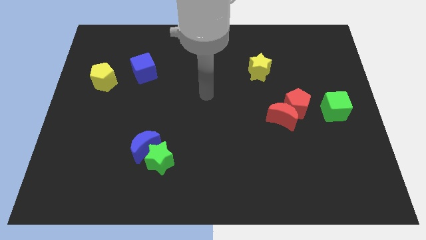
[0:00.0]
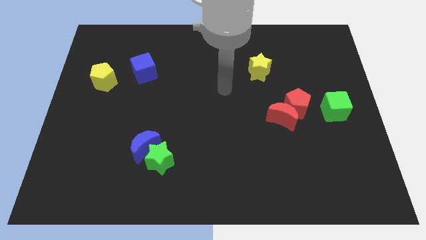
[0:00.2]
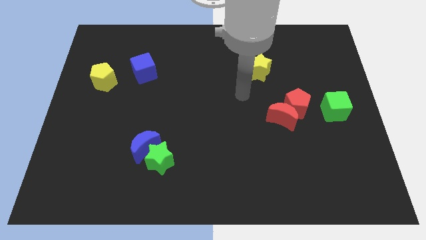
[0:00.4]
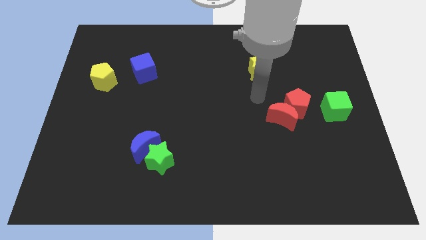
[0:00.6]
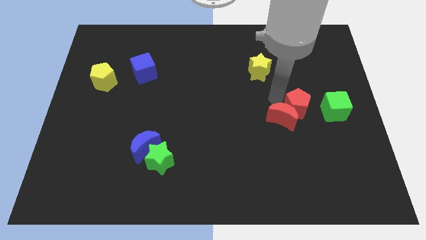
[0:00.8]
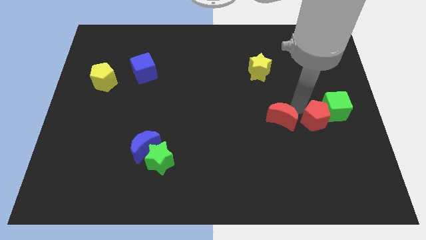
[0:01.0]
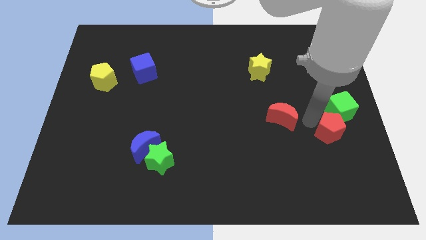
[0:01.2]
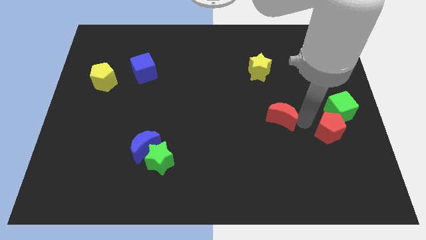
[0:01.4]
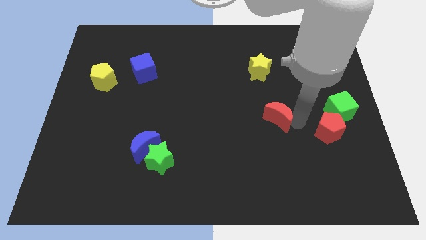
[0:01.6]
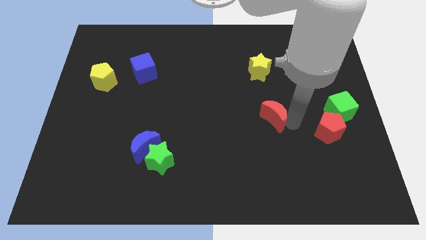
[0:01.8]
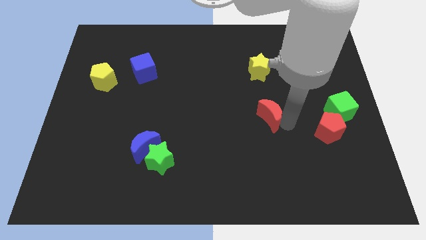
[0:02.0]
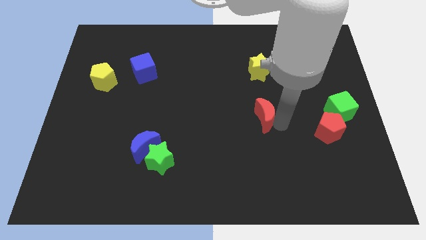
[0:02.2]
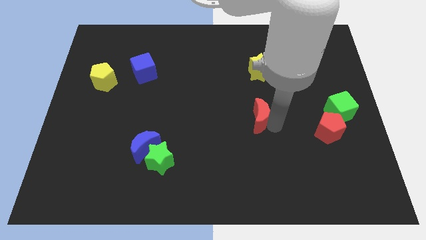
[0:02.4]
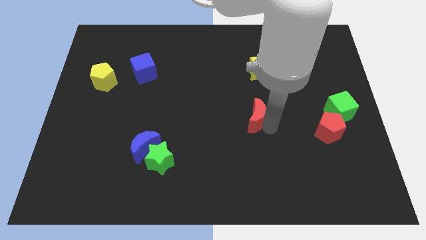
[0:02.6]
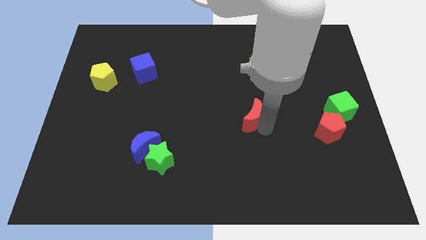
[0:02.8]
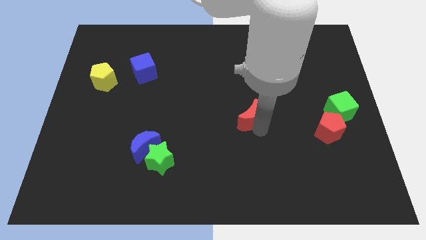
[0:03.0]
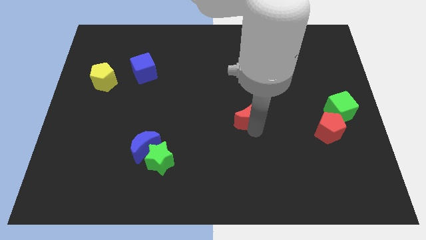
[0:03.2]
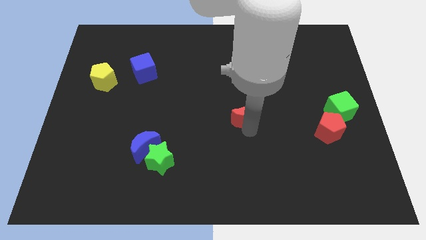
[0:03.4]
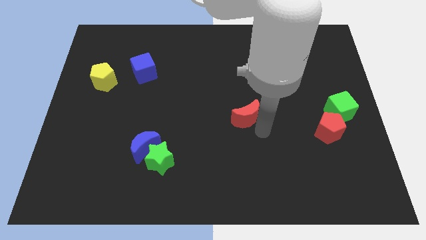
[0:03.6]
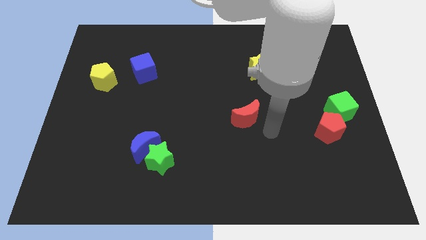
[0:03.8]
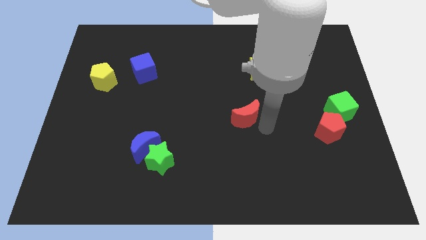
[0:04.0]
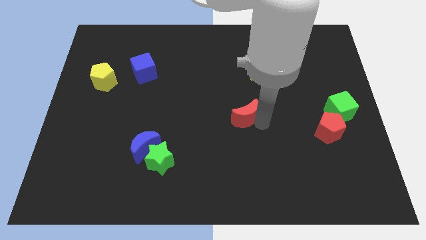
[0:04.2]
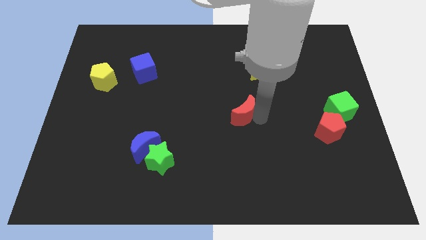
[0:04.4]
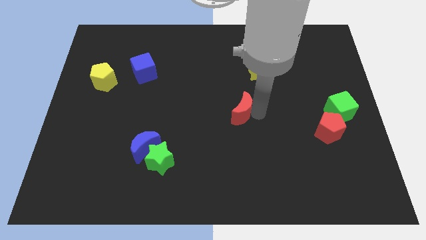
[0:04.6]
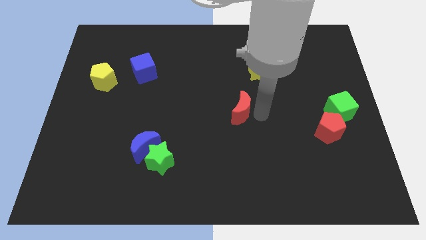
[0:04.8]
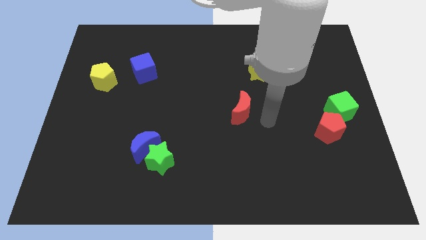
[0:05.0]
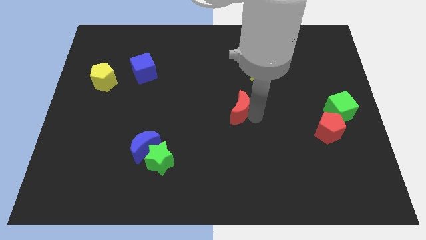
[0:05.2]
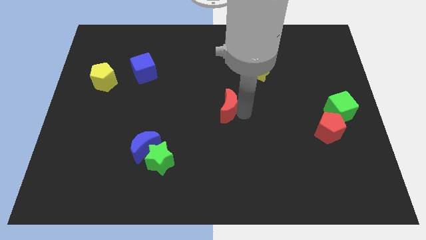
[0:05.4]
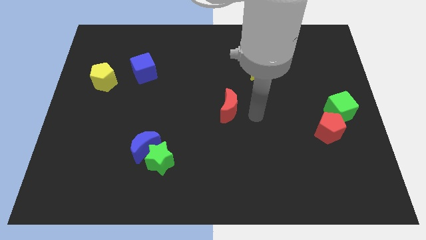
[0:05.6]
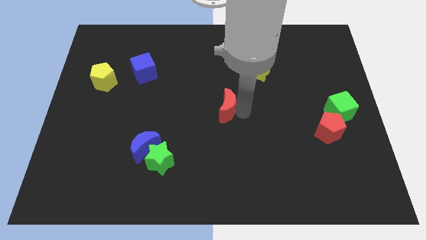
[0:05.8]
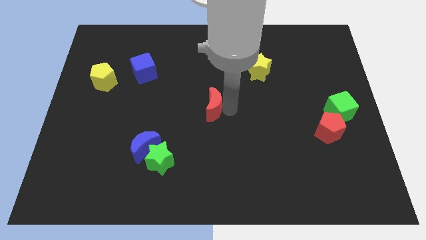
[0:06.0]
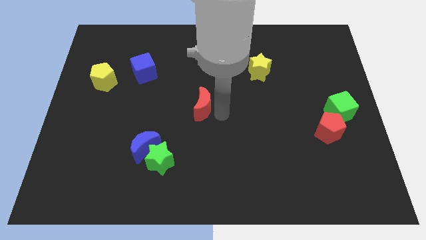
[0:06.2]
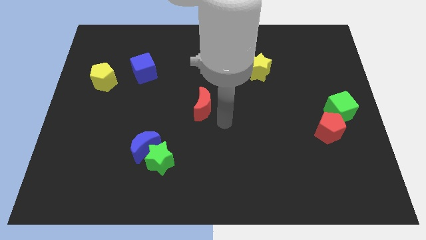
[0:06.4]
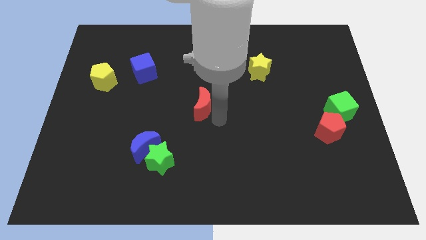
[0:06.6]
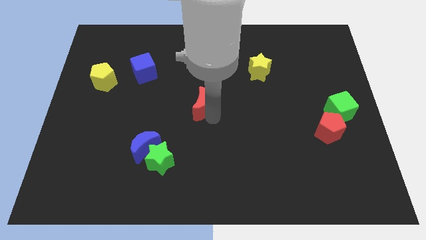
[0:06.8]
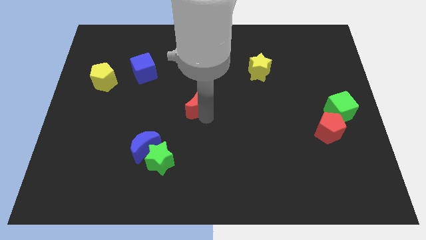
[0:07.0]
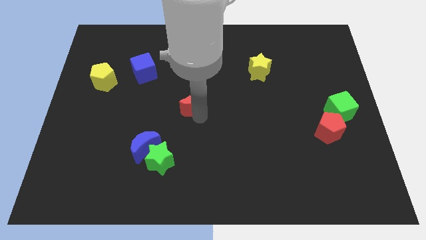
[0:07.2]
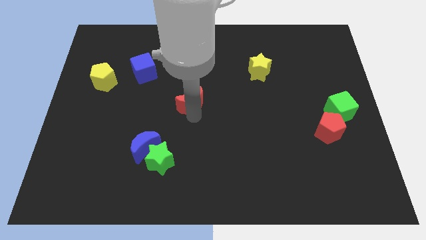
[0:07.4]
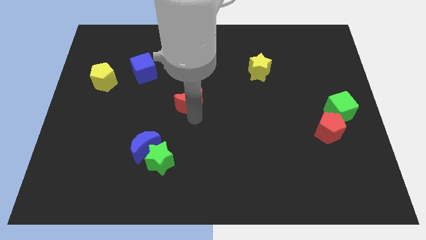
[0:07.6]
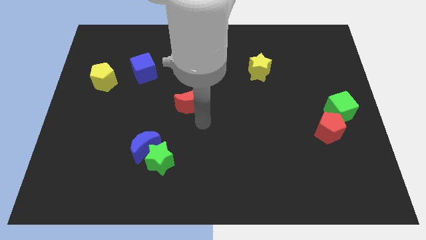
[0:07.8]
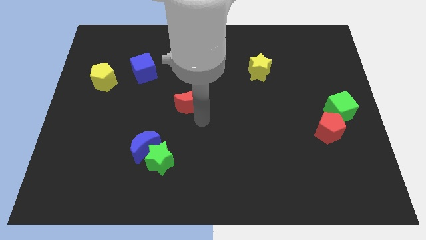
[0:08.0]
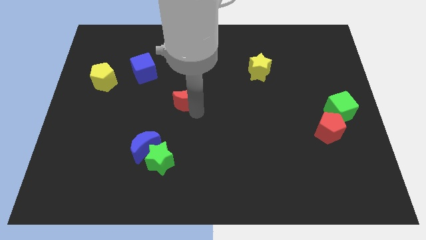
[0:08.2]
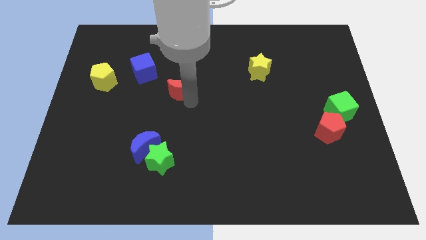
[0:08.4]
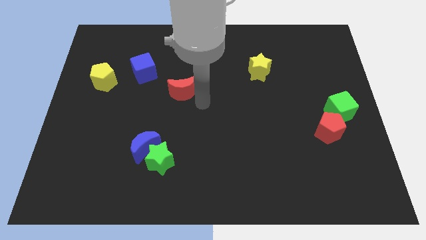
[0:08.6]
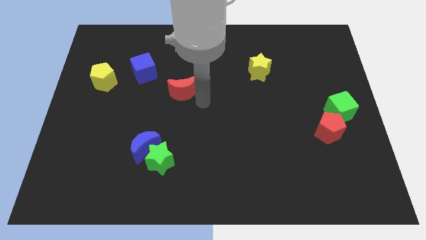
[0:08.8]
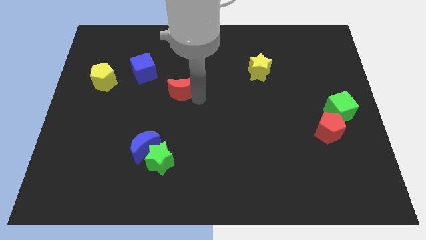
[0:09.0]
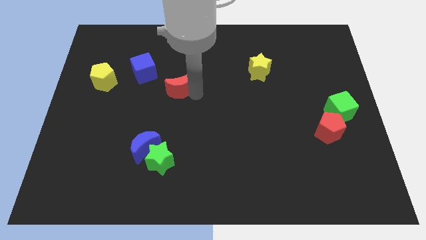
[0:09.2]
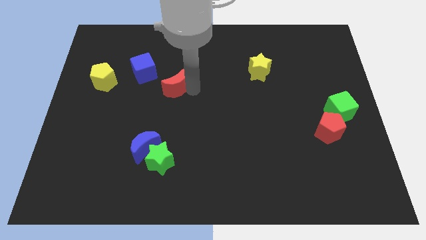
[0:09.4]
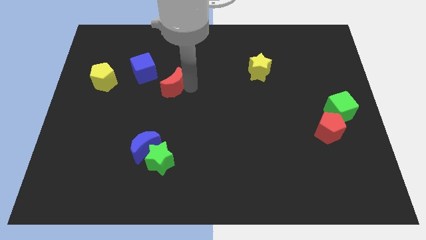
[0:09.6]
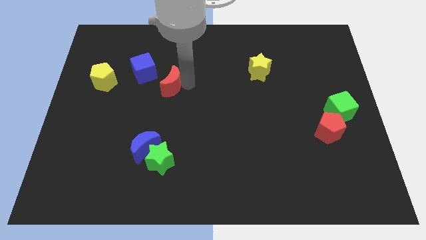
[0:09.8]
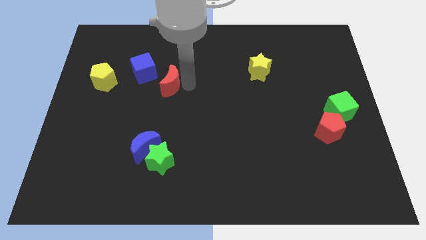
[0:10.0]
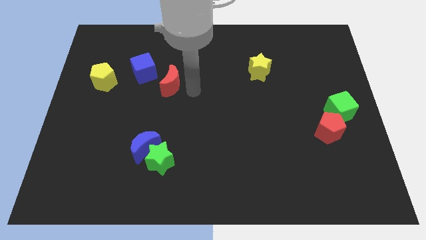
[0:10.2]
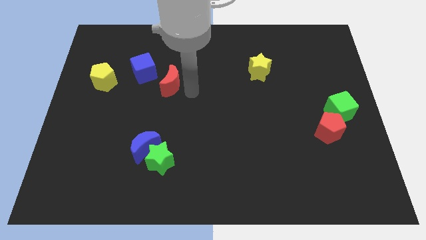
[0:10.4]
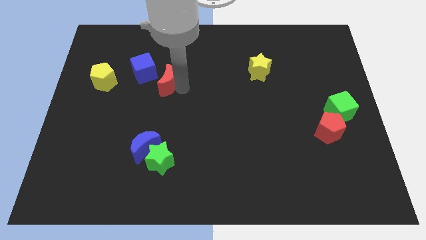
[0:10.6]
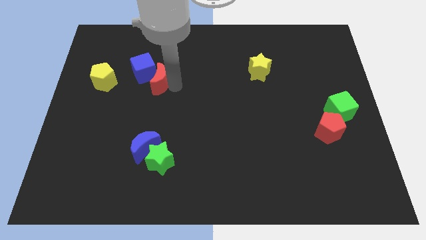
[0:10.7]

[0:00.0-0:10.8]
slide the red moon close to the blue cube

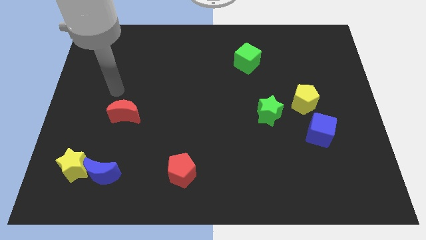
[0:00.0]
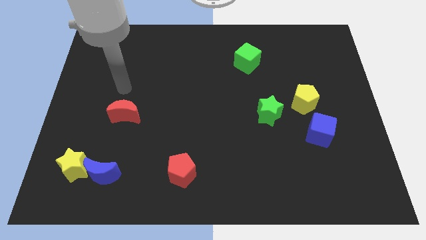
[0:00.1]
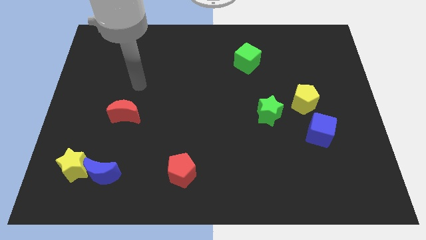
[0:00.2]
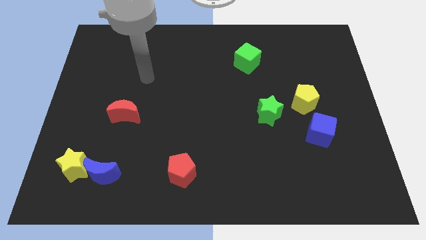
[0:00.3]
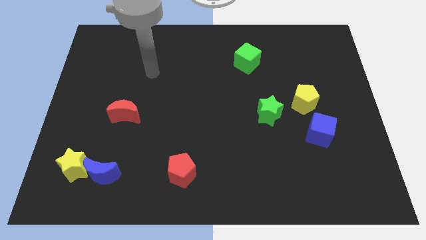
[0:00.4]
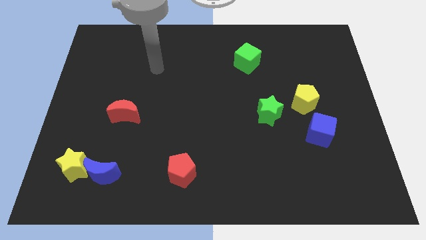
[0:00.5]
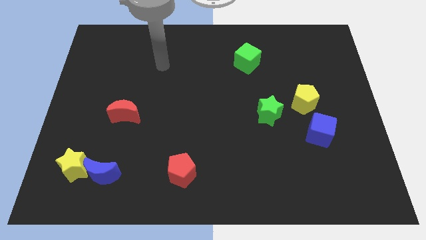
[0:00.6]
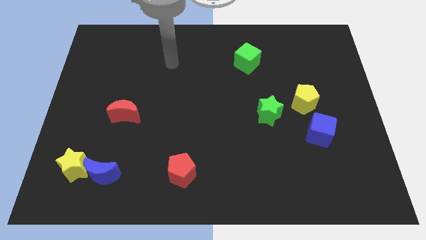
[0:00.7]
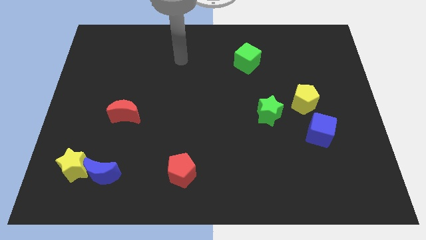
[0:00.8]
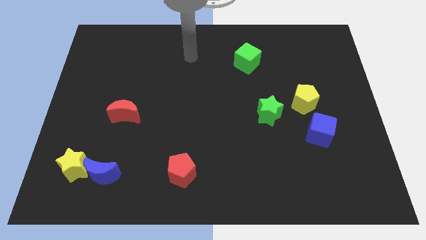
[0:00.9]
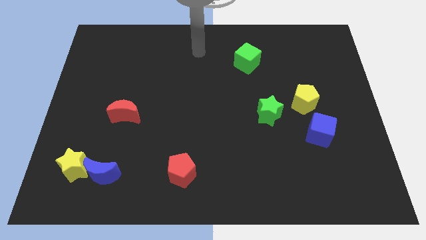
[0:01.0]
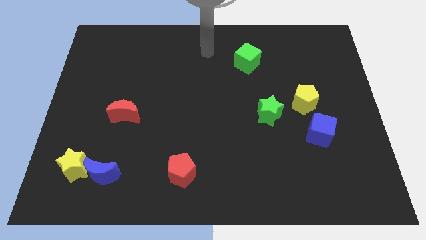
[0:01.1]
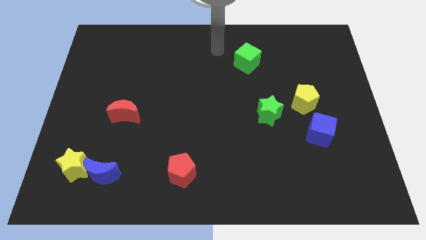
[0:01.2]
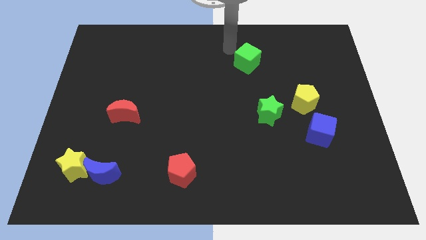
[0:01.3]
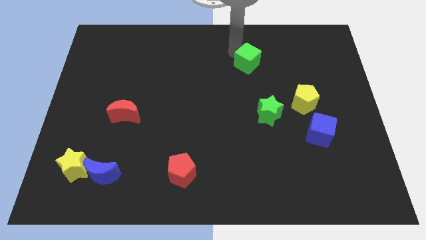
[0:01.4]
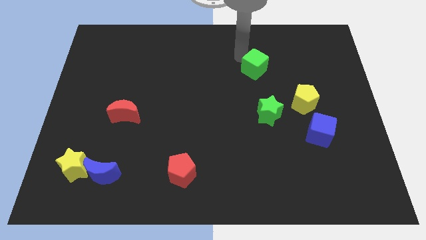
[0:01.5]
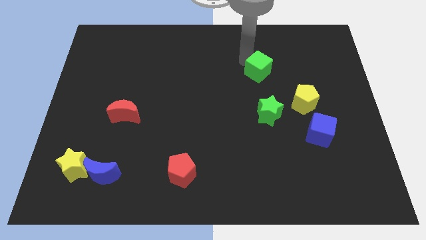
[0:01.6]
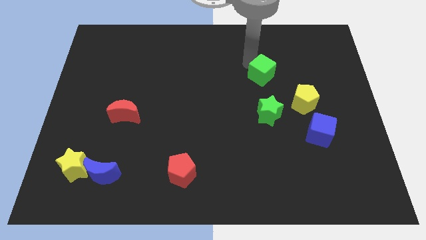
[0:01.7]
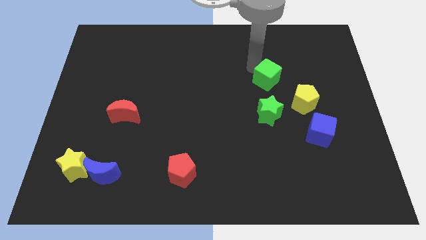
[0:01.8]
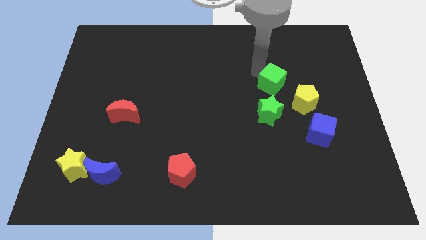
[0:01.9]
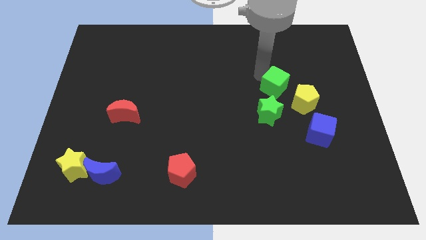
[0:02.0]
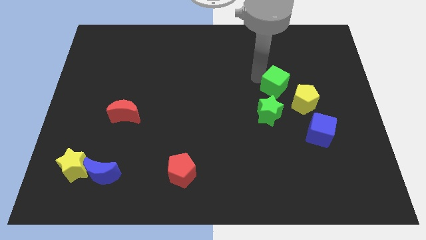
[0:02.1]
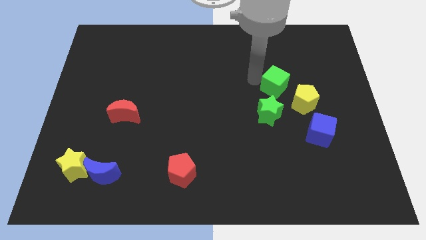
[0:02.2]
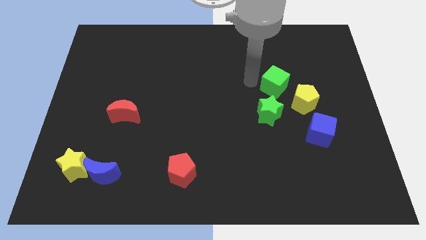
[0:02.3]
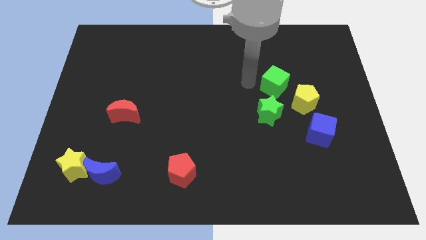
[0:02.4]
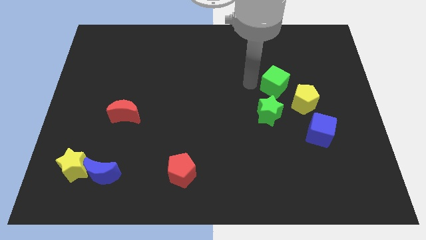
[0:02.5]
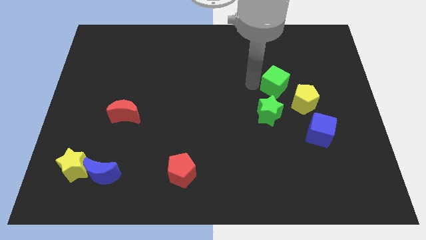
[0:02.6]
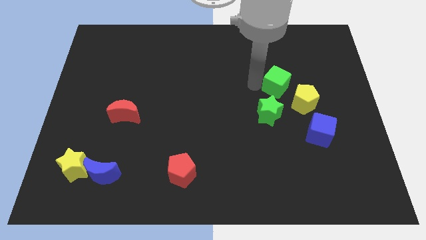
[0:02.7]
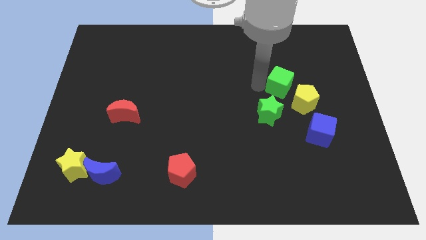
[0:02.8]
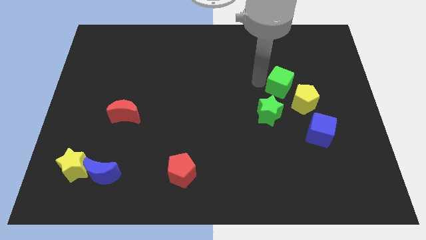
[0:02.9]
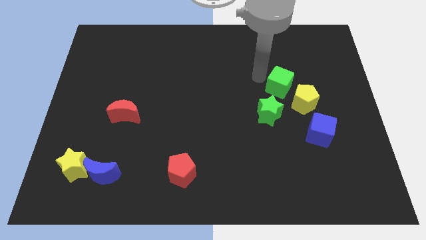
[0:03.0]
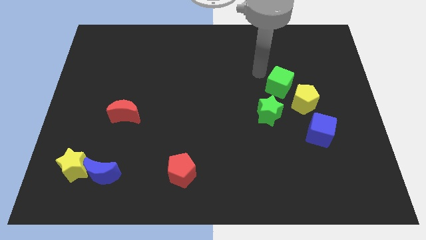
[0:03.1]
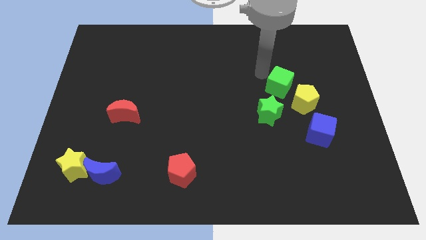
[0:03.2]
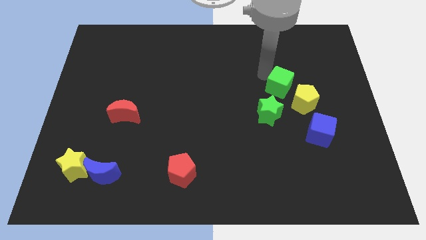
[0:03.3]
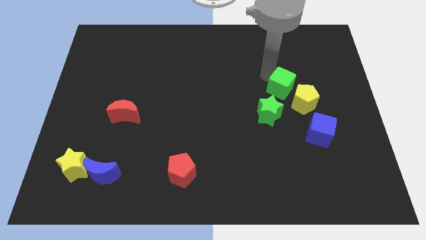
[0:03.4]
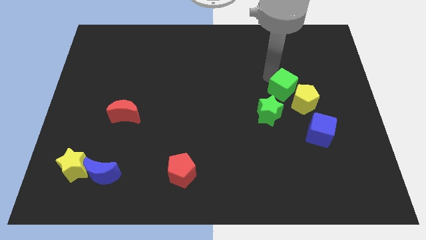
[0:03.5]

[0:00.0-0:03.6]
put the green cube to the yellow pentagon
